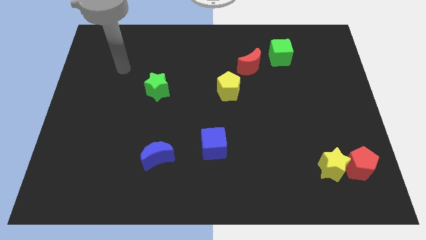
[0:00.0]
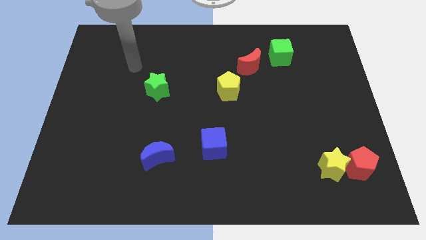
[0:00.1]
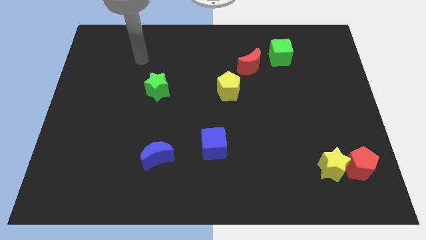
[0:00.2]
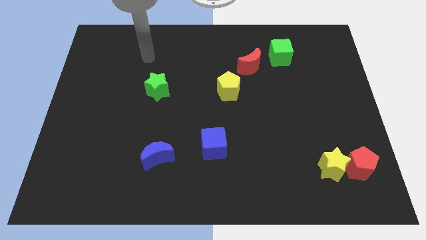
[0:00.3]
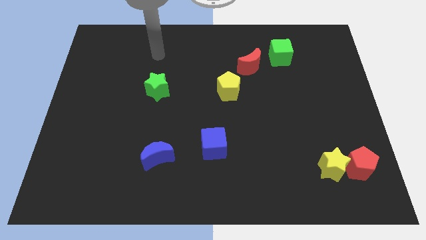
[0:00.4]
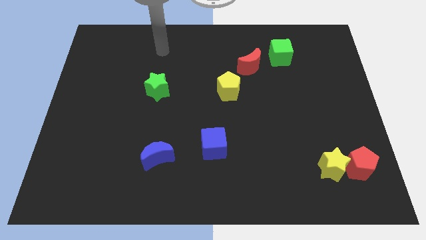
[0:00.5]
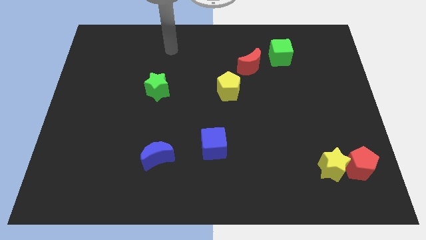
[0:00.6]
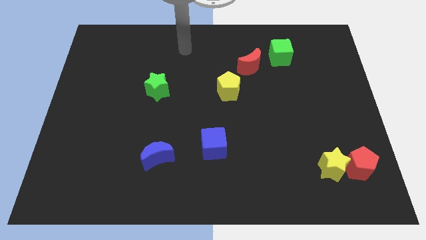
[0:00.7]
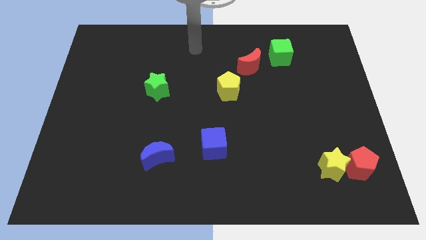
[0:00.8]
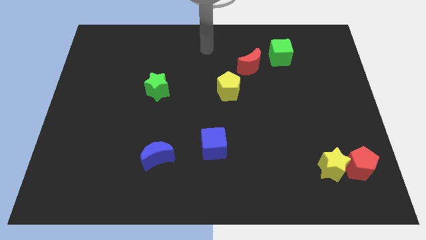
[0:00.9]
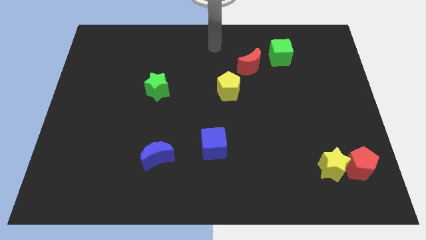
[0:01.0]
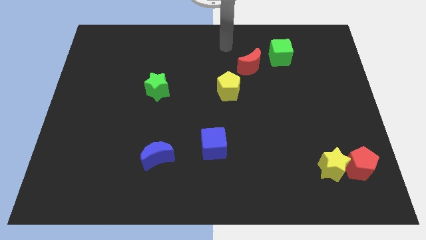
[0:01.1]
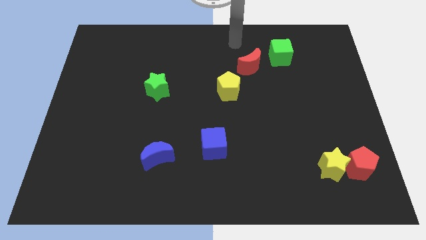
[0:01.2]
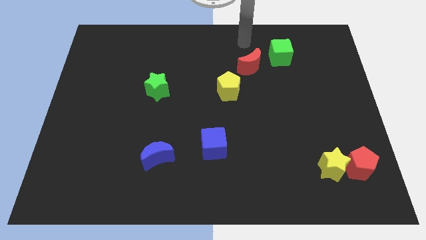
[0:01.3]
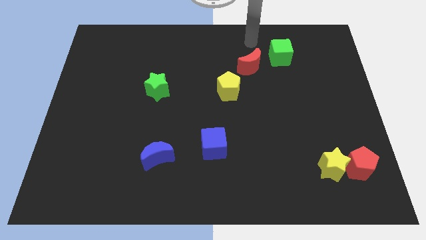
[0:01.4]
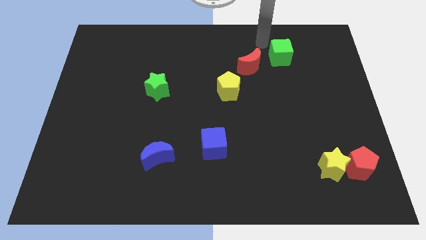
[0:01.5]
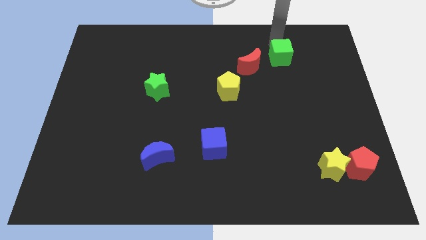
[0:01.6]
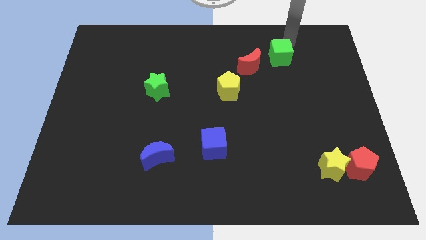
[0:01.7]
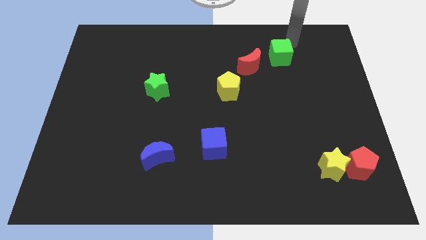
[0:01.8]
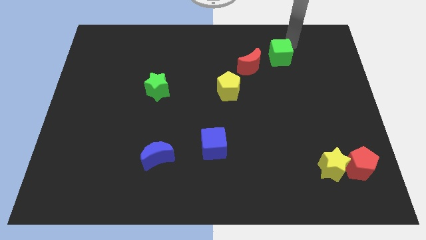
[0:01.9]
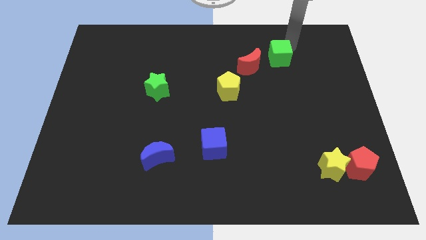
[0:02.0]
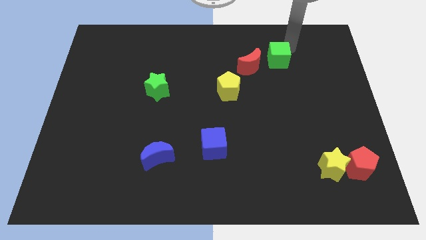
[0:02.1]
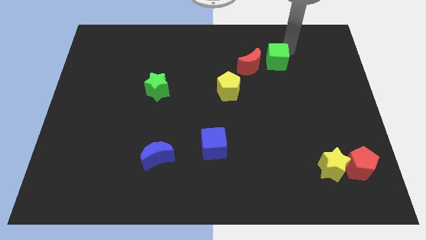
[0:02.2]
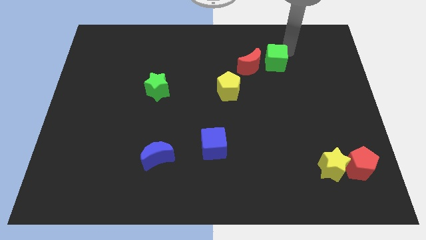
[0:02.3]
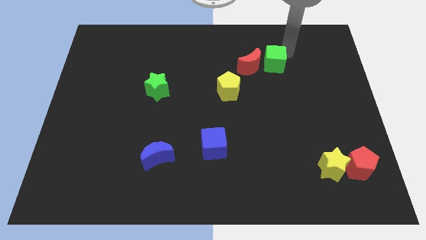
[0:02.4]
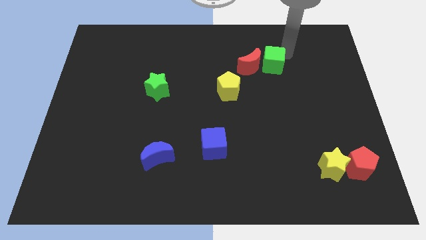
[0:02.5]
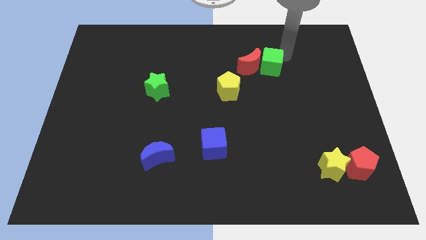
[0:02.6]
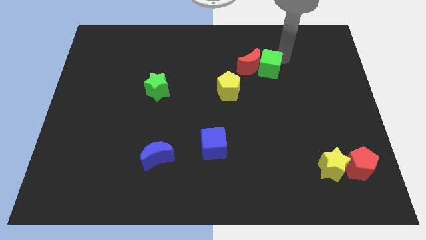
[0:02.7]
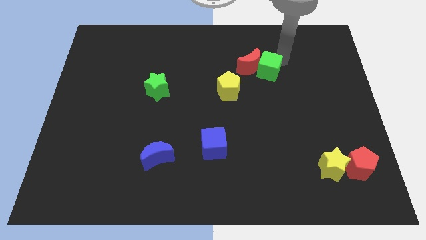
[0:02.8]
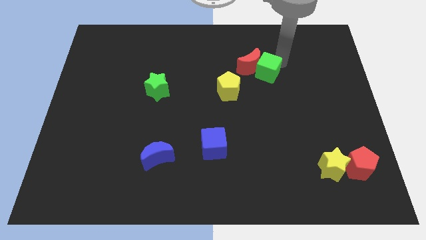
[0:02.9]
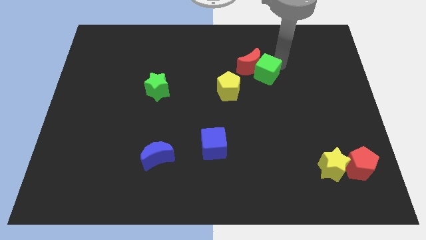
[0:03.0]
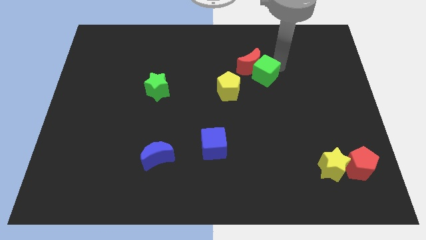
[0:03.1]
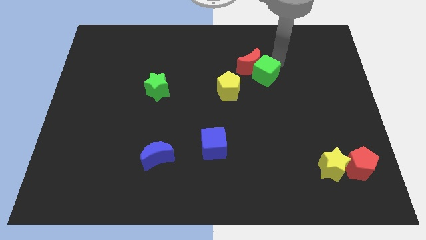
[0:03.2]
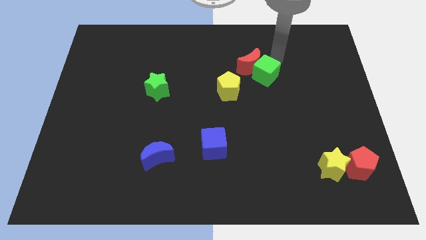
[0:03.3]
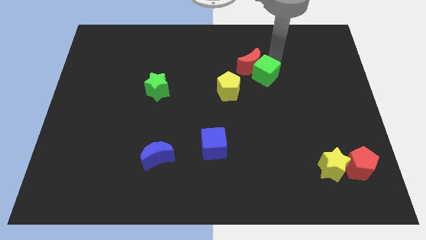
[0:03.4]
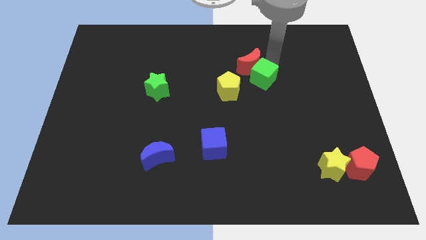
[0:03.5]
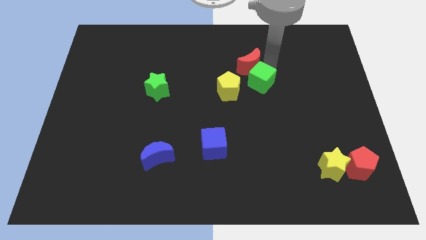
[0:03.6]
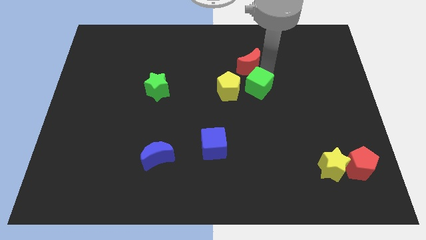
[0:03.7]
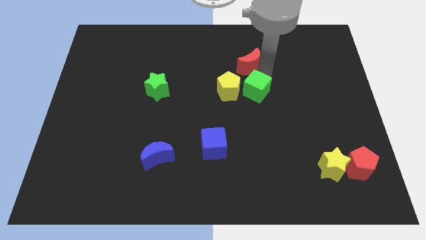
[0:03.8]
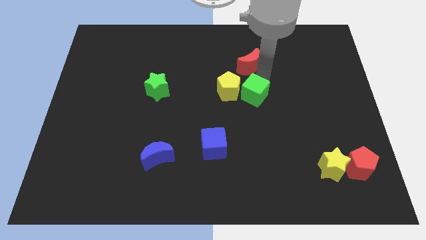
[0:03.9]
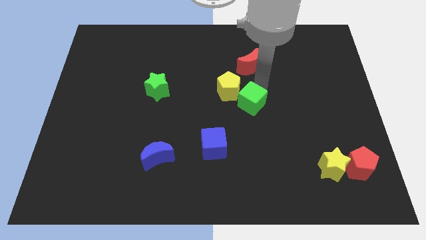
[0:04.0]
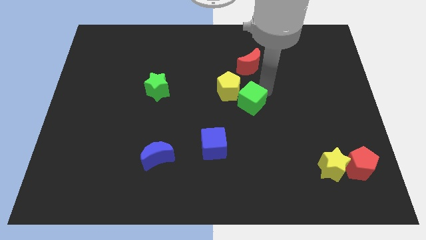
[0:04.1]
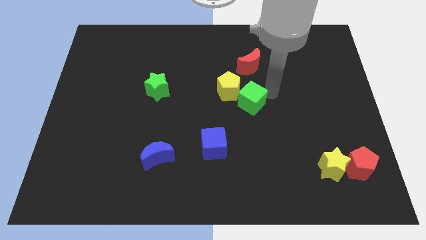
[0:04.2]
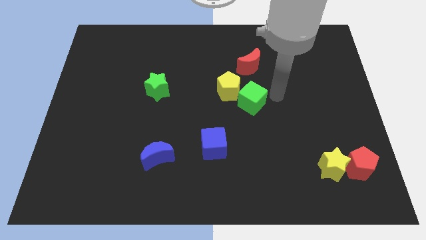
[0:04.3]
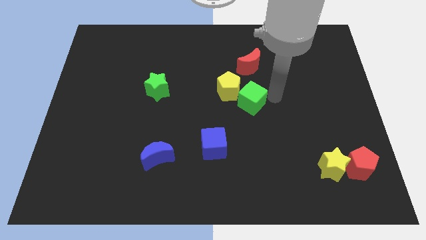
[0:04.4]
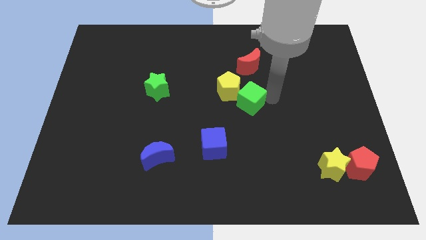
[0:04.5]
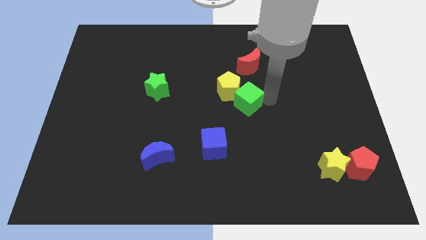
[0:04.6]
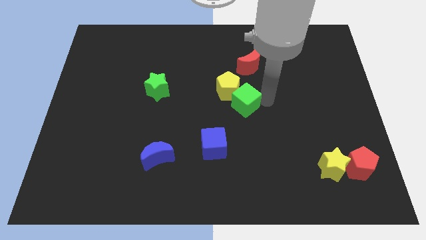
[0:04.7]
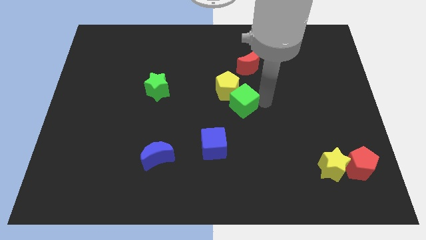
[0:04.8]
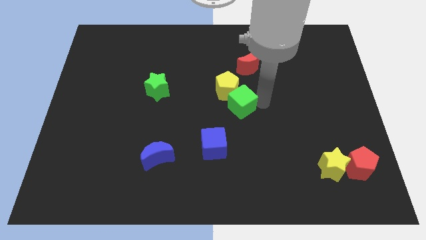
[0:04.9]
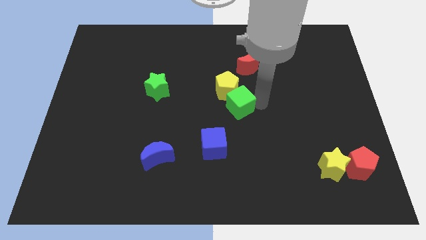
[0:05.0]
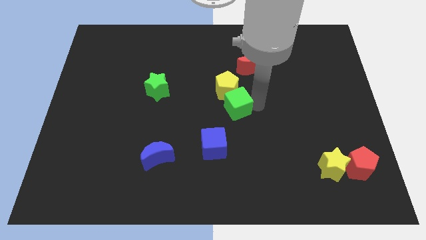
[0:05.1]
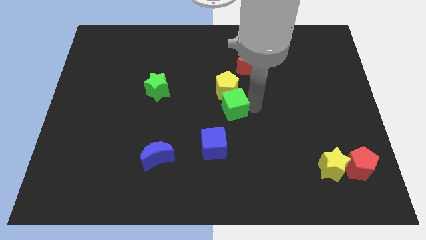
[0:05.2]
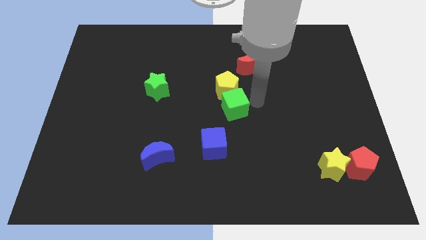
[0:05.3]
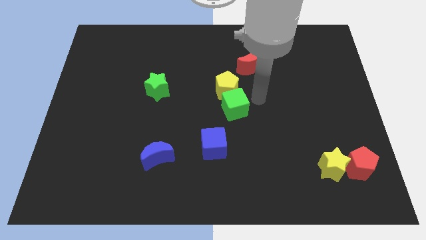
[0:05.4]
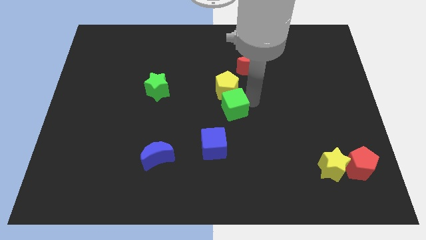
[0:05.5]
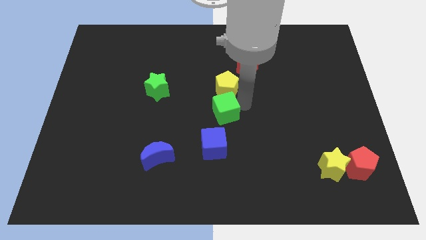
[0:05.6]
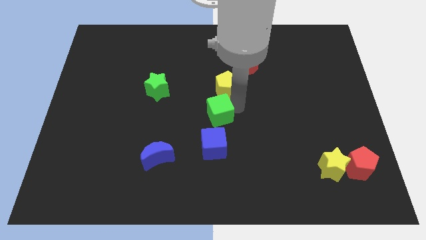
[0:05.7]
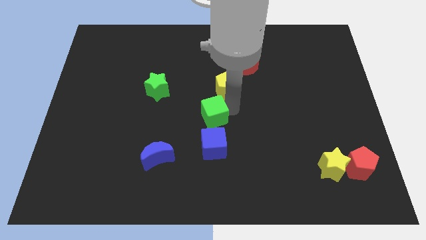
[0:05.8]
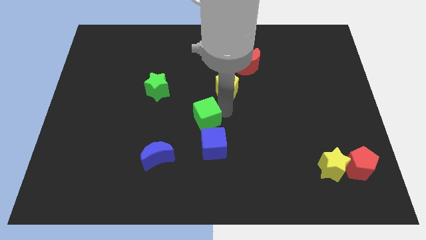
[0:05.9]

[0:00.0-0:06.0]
slide the green cube to the top left side of the blue cube

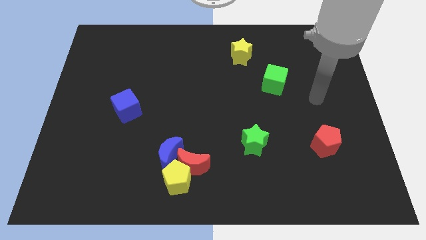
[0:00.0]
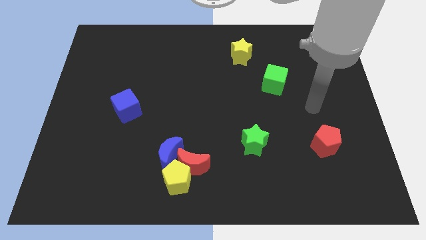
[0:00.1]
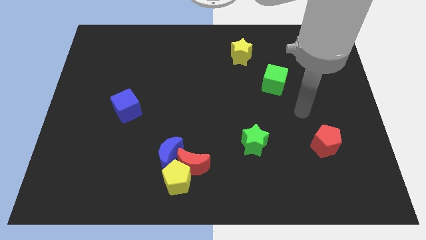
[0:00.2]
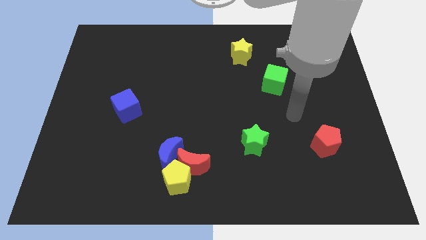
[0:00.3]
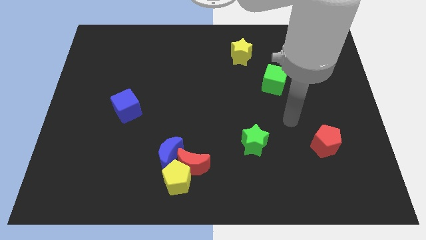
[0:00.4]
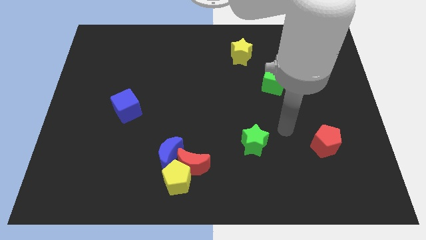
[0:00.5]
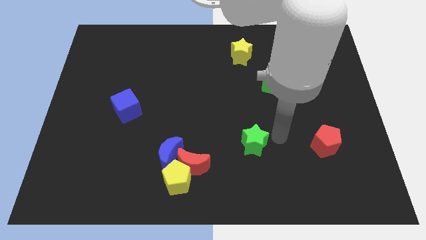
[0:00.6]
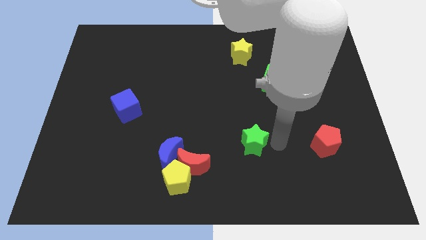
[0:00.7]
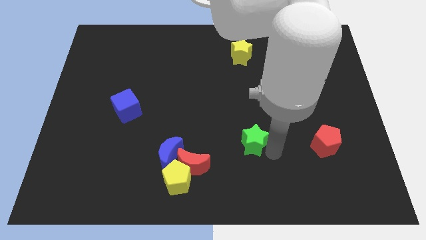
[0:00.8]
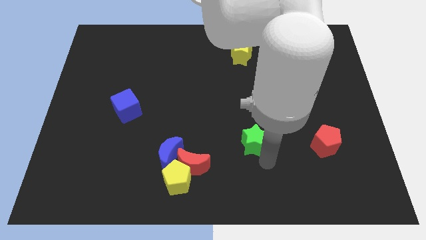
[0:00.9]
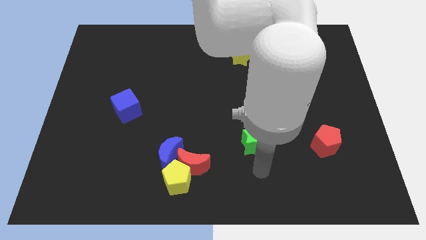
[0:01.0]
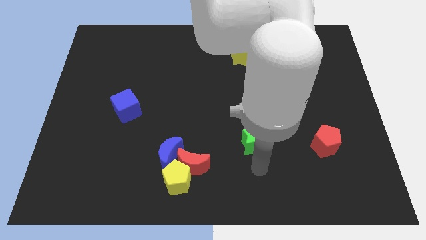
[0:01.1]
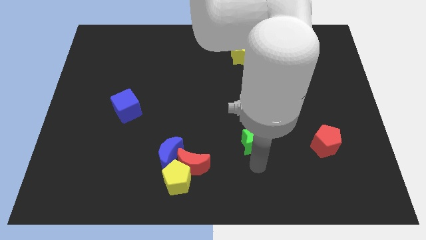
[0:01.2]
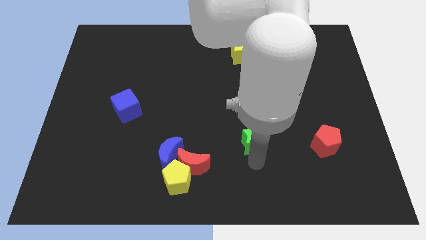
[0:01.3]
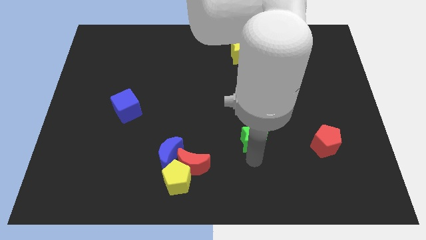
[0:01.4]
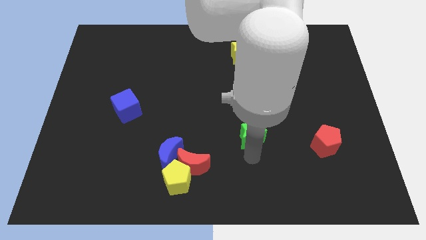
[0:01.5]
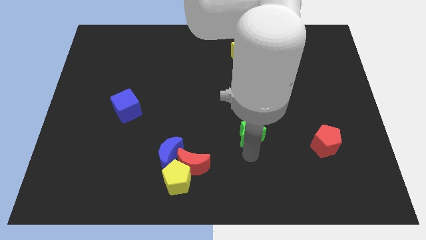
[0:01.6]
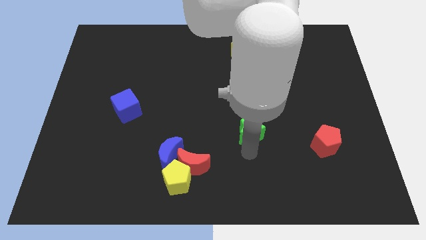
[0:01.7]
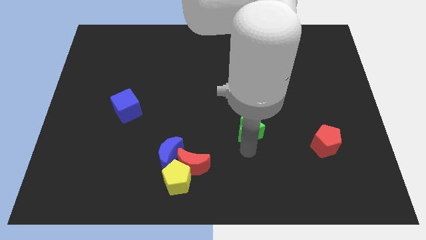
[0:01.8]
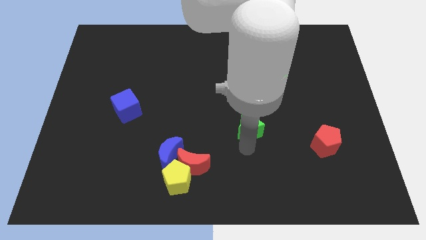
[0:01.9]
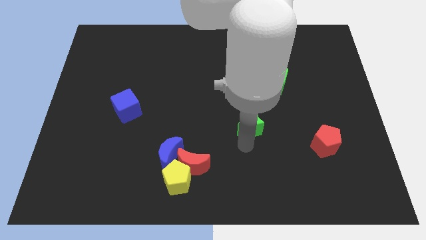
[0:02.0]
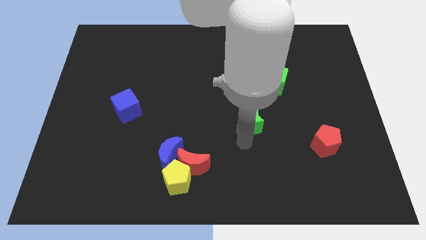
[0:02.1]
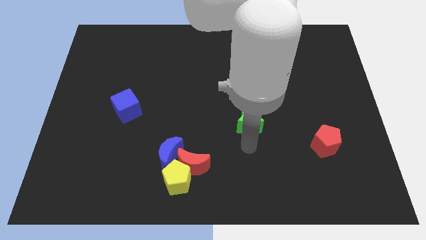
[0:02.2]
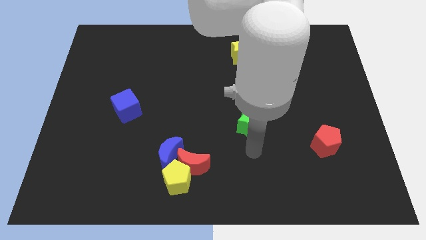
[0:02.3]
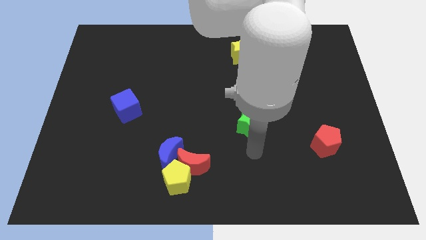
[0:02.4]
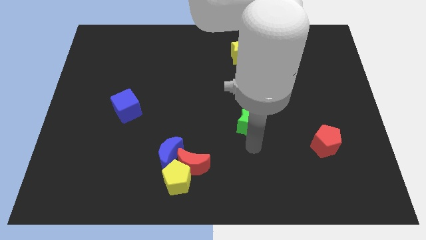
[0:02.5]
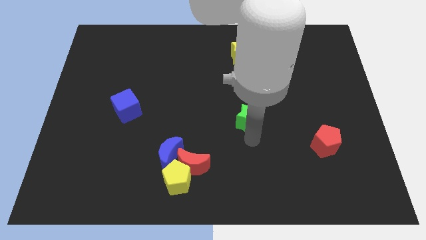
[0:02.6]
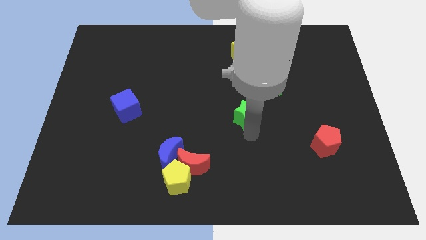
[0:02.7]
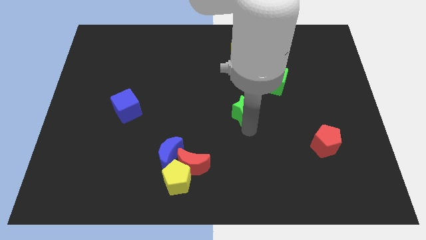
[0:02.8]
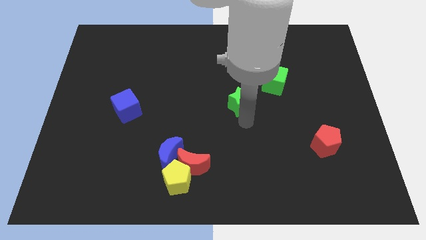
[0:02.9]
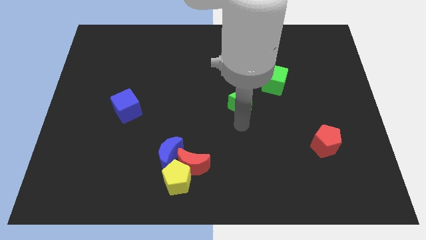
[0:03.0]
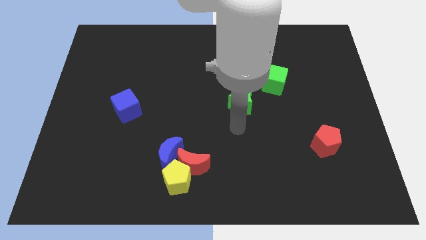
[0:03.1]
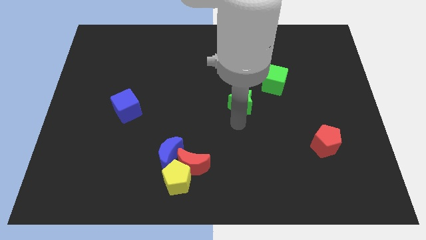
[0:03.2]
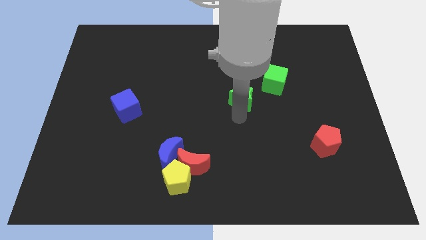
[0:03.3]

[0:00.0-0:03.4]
put the green star to the bottom side of the yellow star
